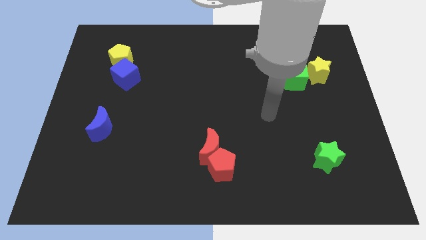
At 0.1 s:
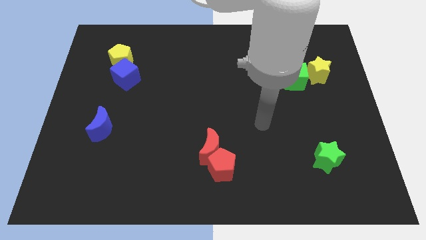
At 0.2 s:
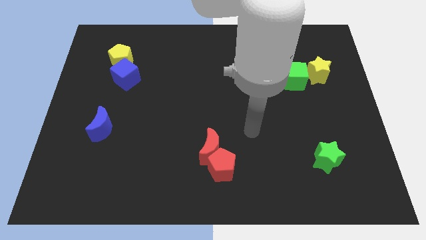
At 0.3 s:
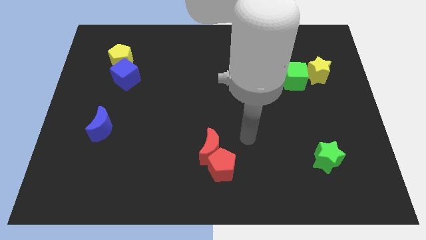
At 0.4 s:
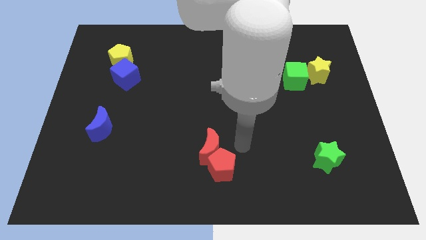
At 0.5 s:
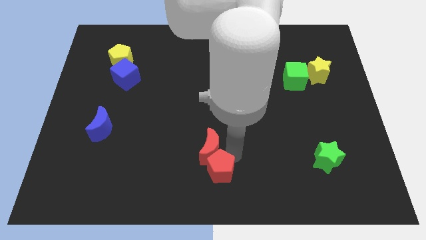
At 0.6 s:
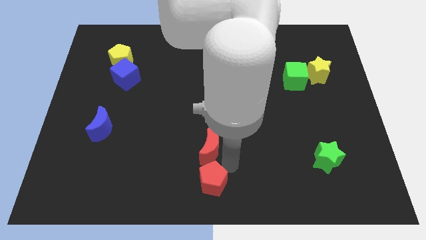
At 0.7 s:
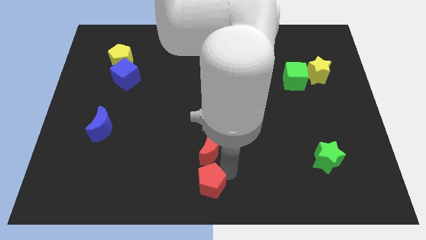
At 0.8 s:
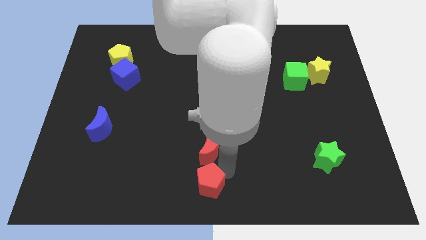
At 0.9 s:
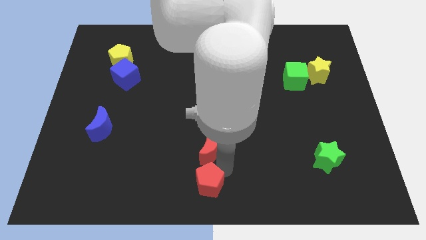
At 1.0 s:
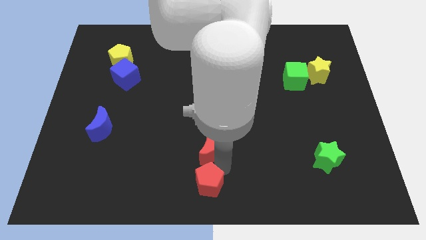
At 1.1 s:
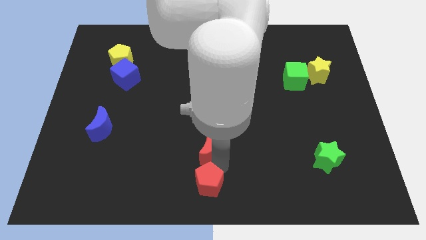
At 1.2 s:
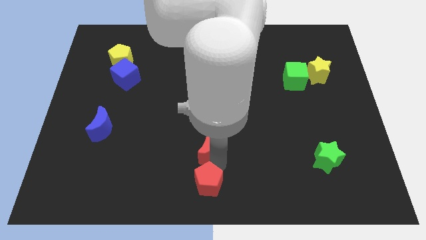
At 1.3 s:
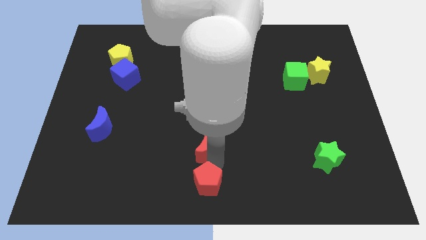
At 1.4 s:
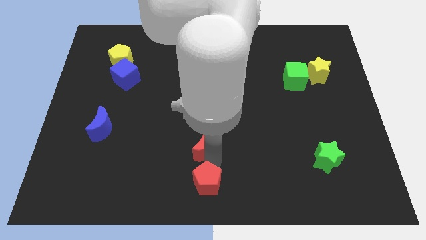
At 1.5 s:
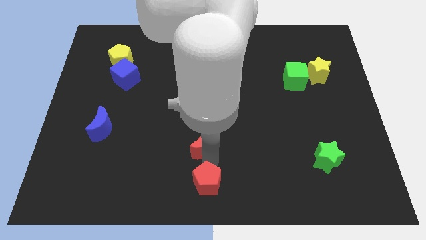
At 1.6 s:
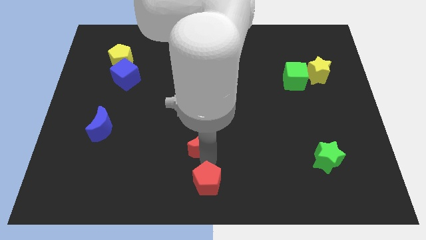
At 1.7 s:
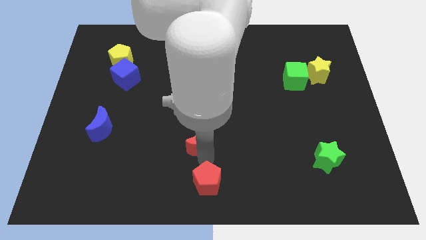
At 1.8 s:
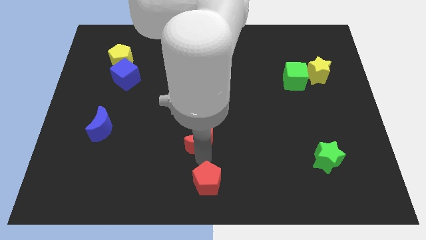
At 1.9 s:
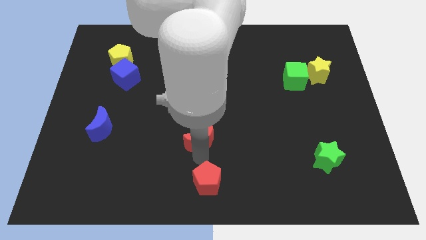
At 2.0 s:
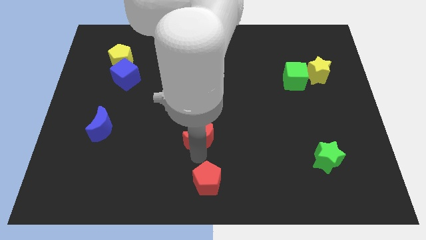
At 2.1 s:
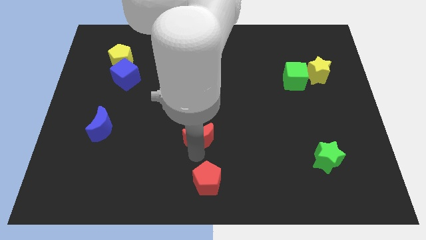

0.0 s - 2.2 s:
separate the red moon from the red pentagon

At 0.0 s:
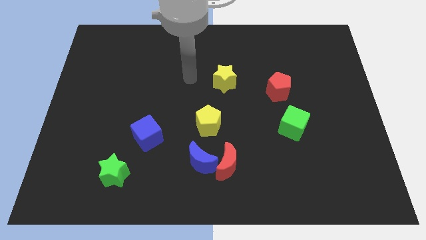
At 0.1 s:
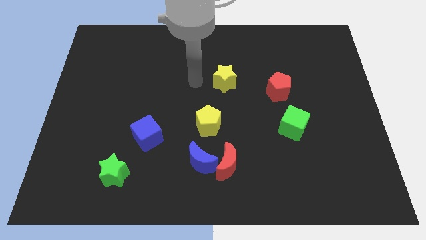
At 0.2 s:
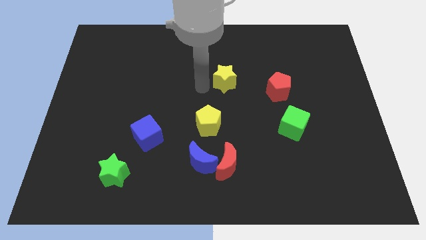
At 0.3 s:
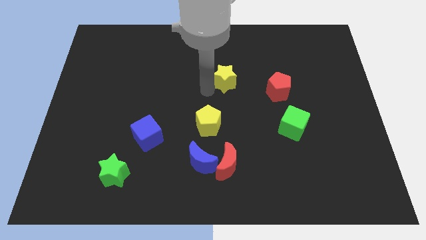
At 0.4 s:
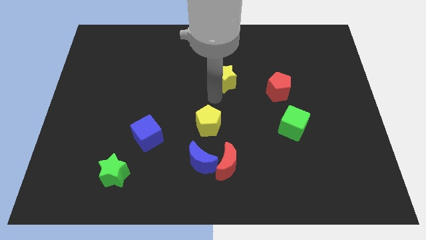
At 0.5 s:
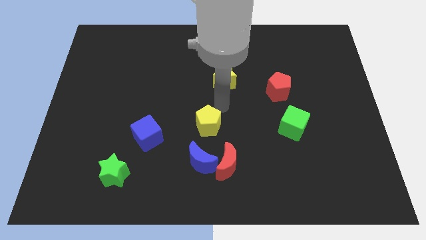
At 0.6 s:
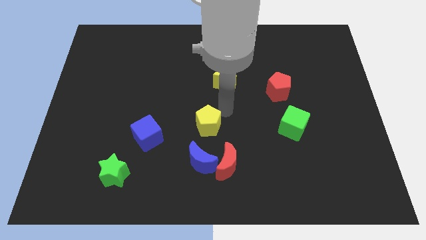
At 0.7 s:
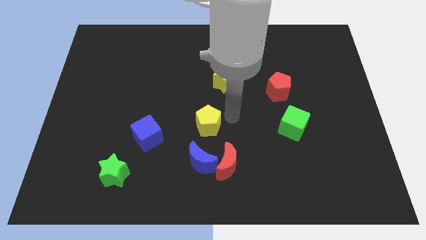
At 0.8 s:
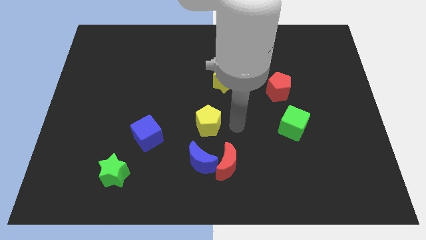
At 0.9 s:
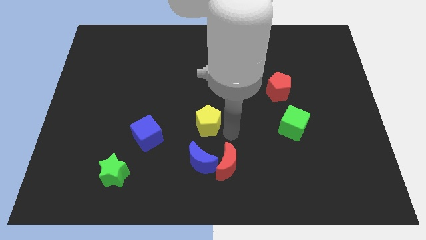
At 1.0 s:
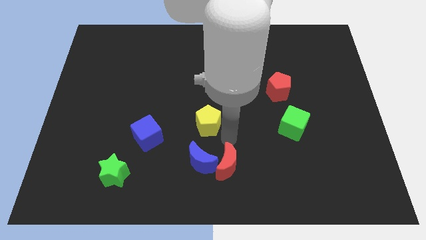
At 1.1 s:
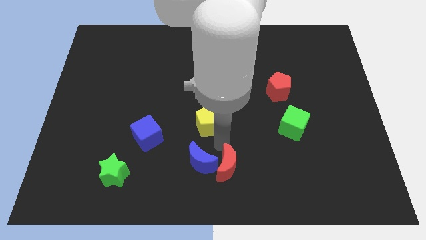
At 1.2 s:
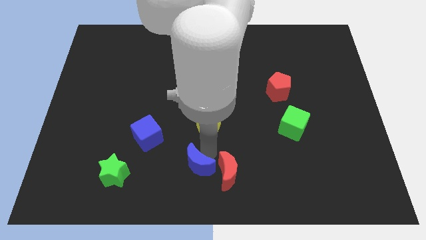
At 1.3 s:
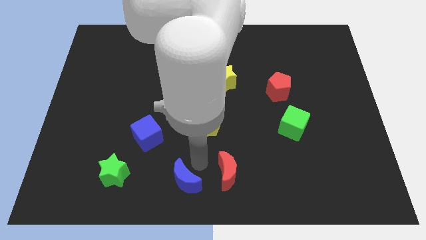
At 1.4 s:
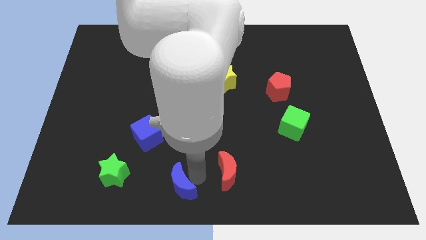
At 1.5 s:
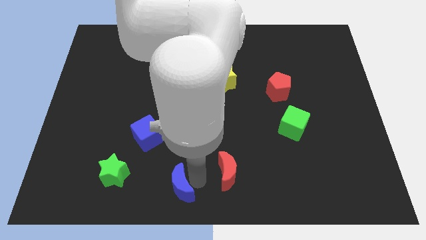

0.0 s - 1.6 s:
pull the red moon apart from the blue moon

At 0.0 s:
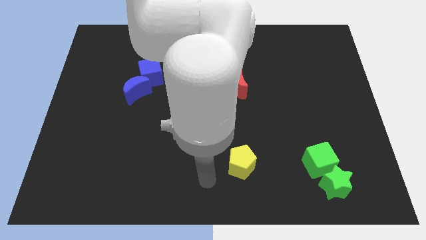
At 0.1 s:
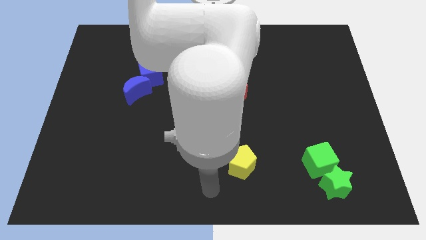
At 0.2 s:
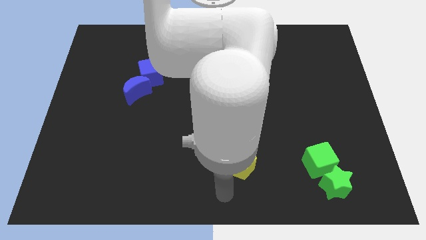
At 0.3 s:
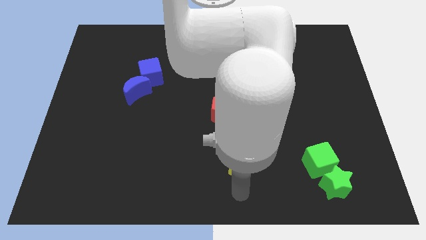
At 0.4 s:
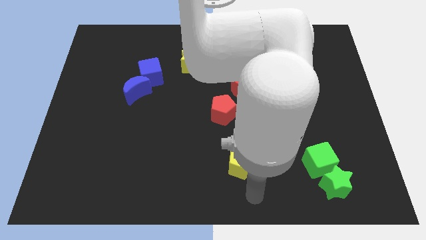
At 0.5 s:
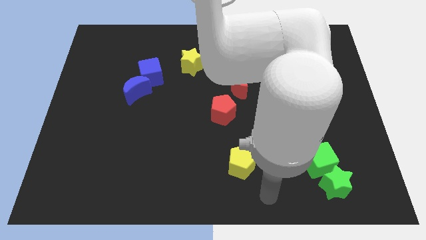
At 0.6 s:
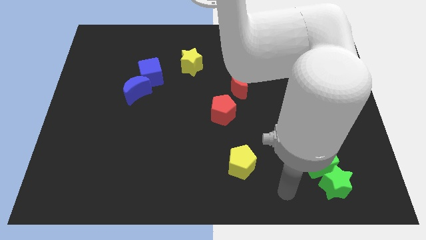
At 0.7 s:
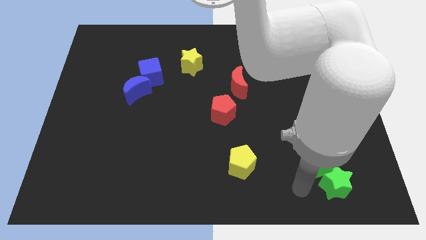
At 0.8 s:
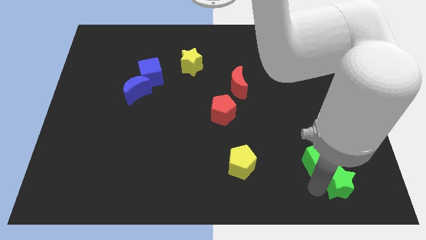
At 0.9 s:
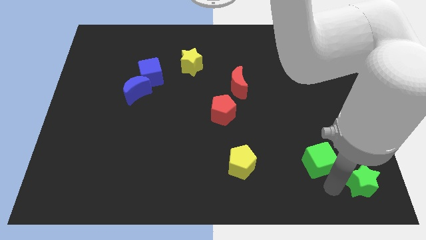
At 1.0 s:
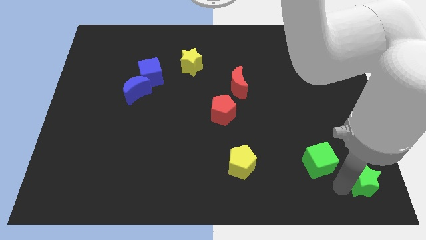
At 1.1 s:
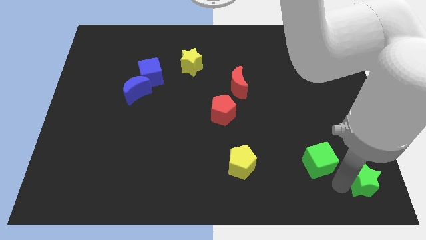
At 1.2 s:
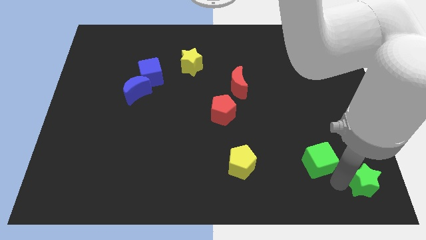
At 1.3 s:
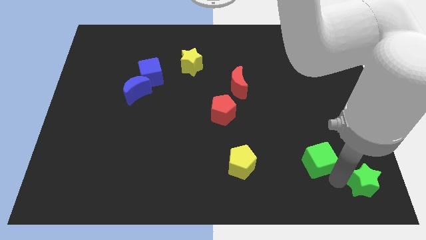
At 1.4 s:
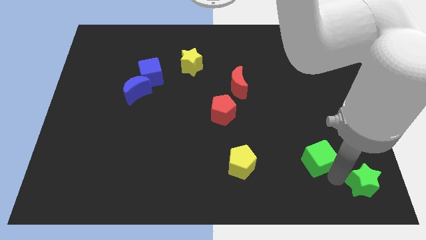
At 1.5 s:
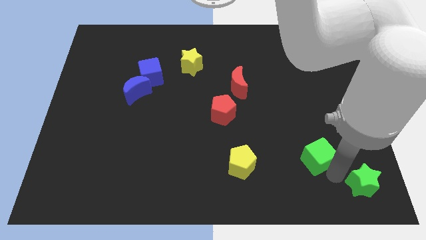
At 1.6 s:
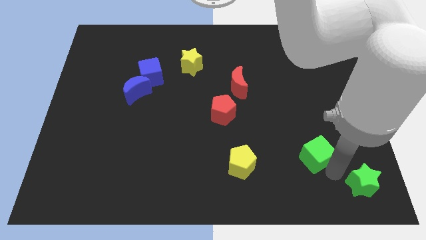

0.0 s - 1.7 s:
separate the green cube from the green star

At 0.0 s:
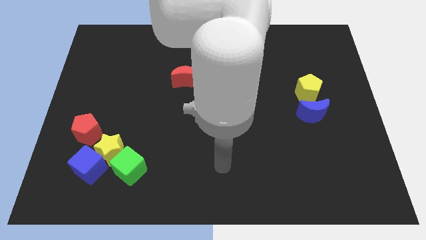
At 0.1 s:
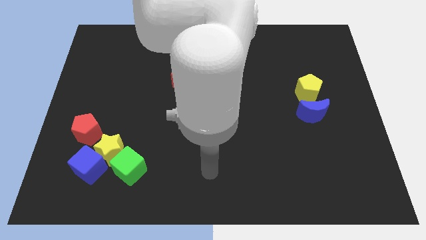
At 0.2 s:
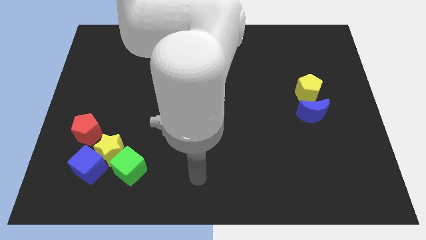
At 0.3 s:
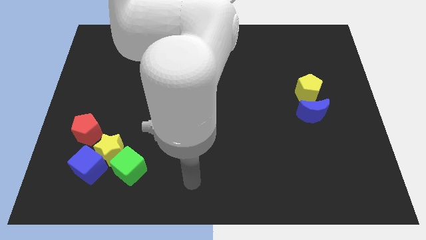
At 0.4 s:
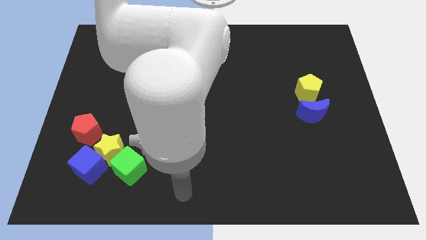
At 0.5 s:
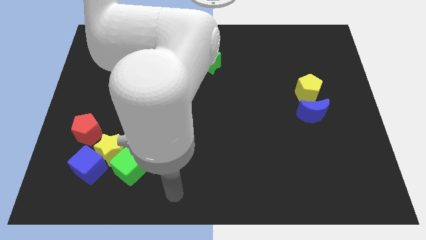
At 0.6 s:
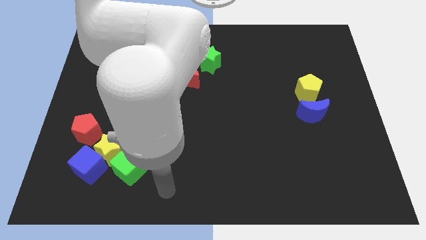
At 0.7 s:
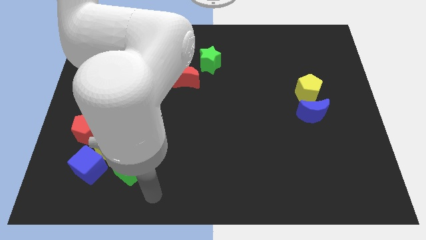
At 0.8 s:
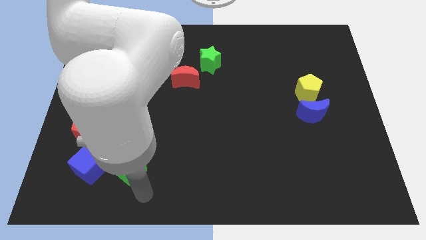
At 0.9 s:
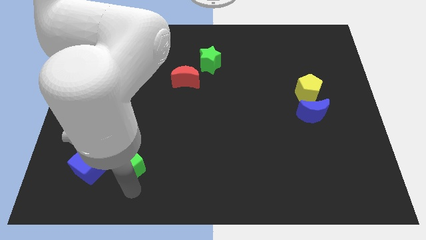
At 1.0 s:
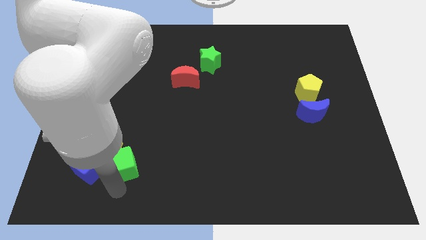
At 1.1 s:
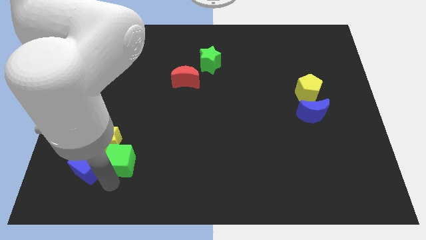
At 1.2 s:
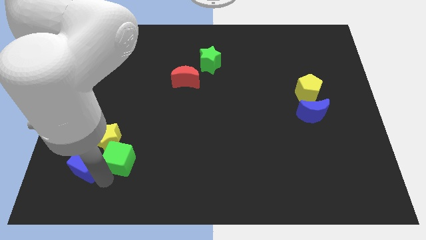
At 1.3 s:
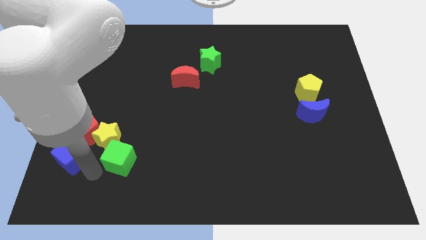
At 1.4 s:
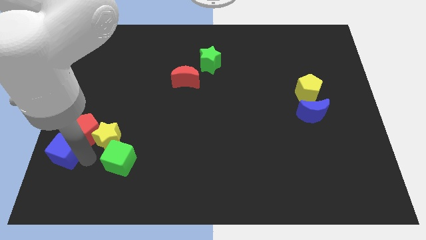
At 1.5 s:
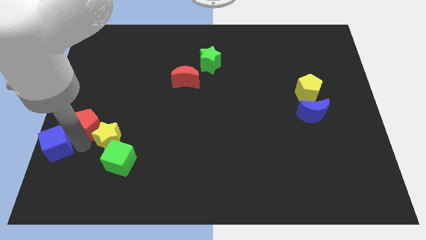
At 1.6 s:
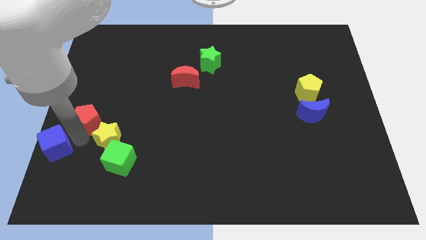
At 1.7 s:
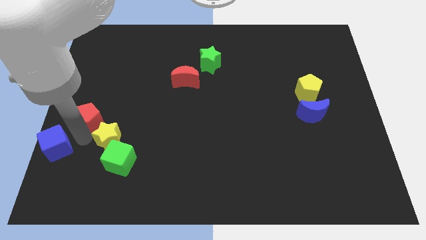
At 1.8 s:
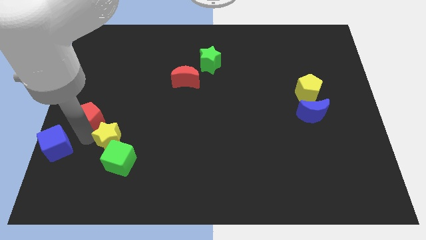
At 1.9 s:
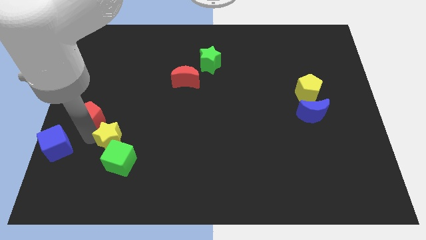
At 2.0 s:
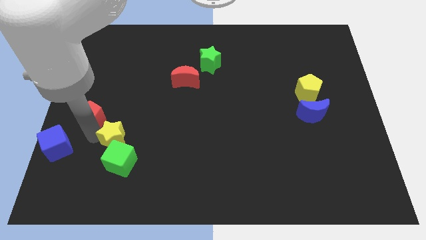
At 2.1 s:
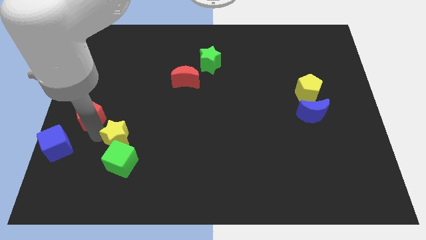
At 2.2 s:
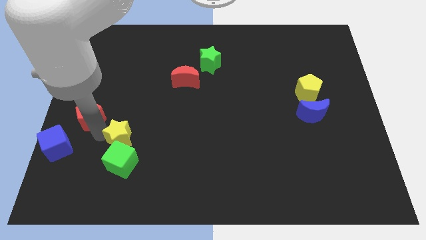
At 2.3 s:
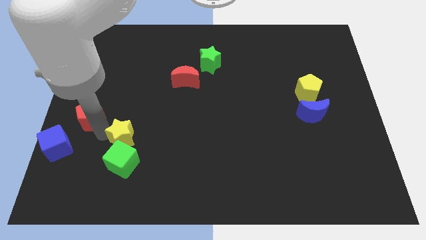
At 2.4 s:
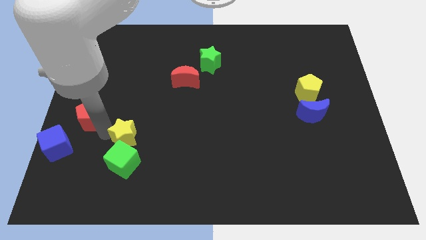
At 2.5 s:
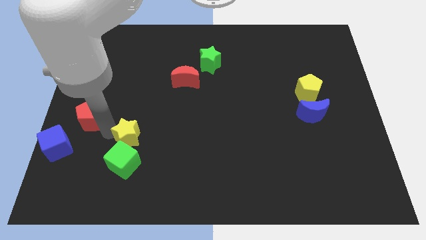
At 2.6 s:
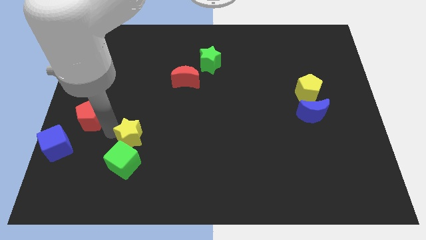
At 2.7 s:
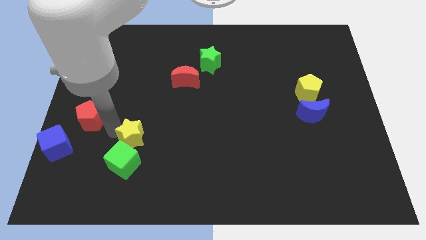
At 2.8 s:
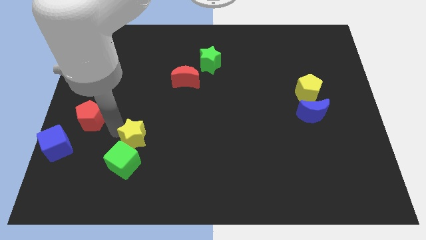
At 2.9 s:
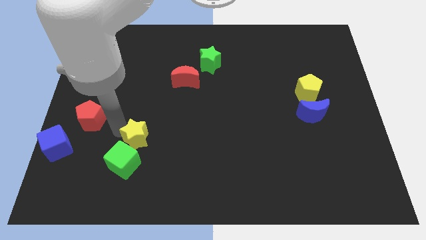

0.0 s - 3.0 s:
move the yellow star away from the group of blocks

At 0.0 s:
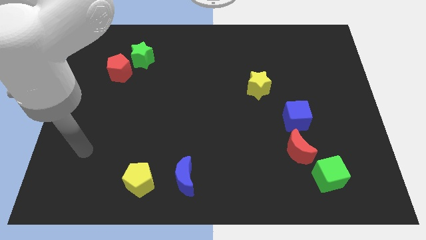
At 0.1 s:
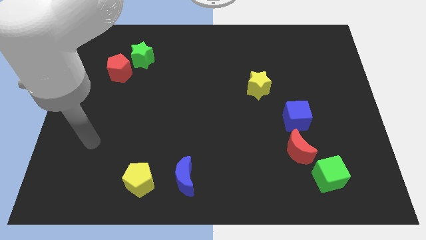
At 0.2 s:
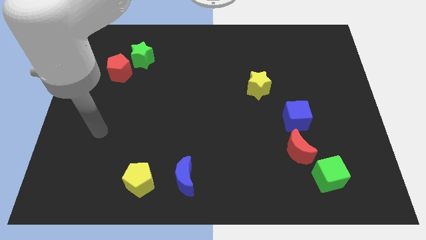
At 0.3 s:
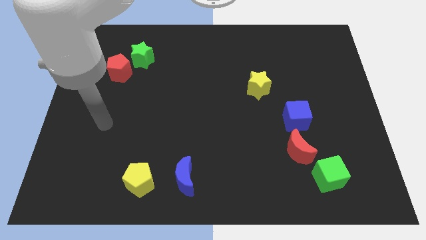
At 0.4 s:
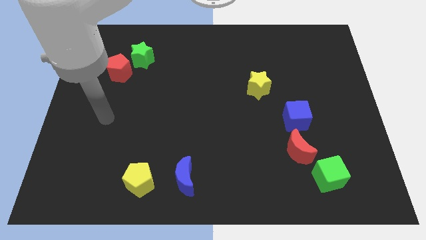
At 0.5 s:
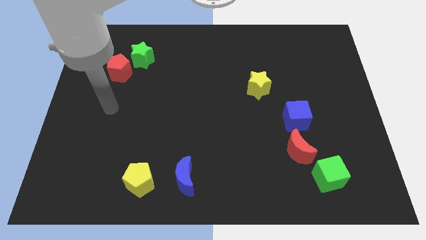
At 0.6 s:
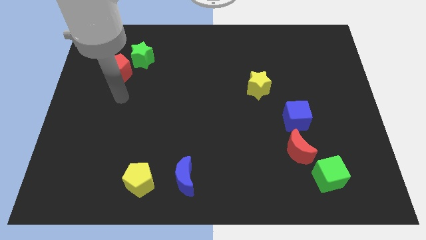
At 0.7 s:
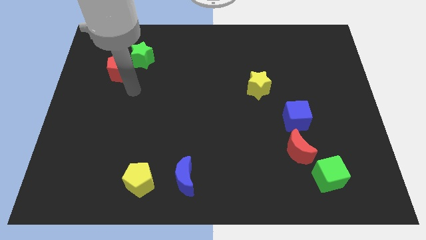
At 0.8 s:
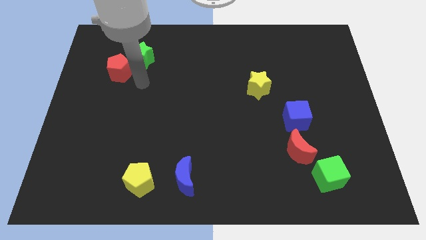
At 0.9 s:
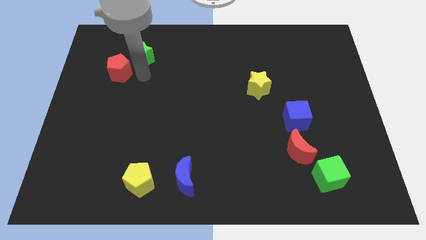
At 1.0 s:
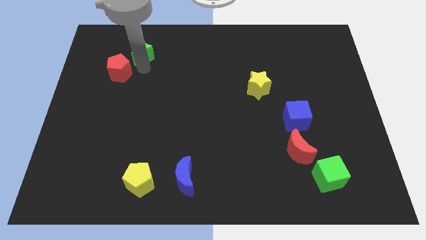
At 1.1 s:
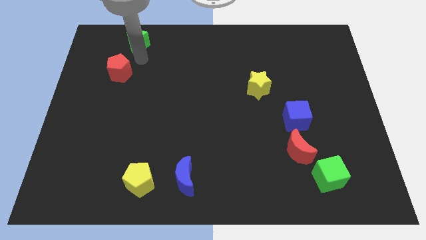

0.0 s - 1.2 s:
pull the red pentagon apart from the green star
